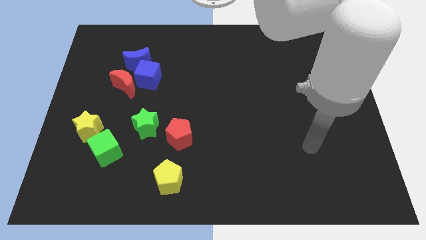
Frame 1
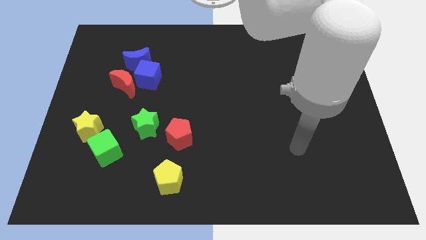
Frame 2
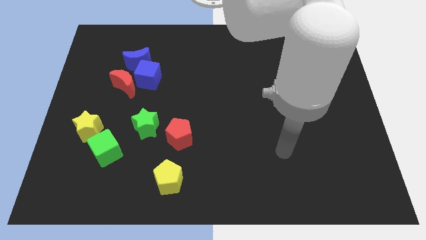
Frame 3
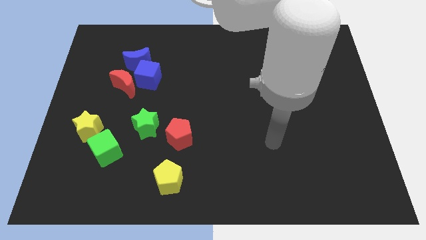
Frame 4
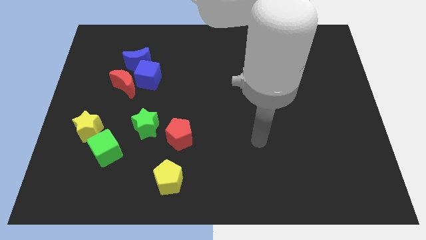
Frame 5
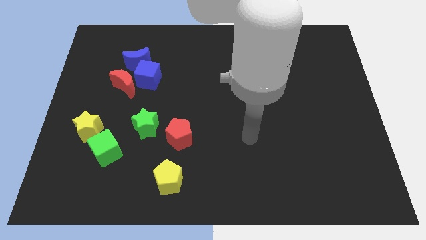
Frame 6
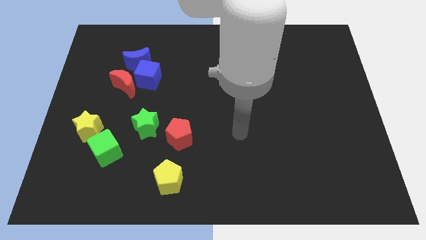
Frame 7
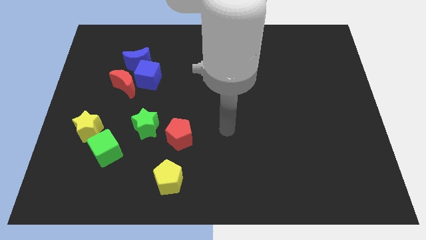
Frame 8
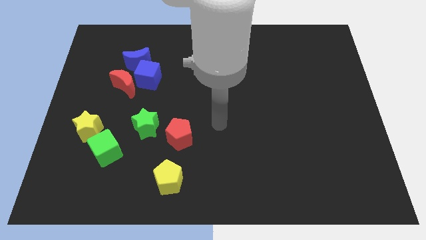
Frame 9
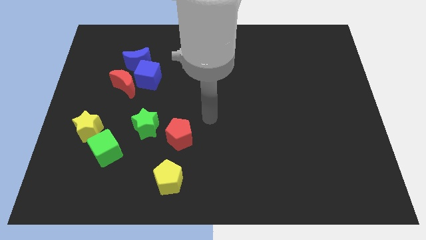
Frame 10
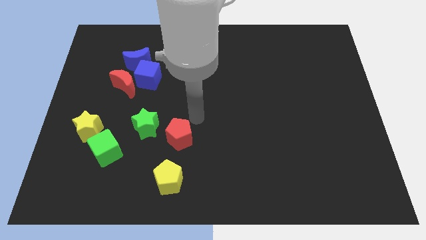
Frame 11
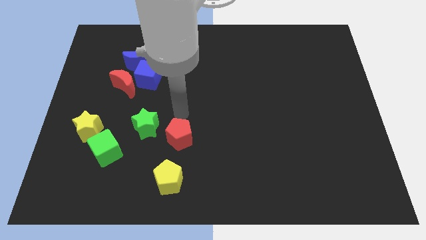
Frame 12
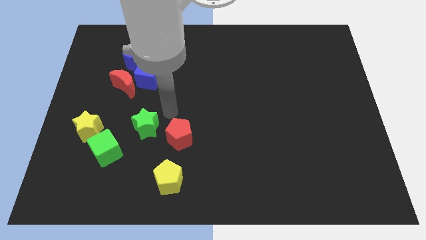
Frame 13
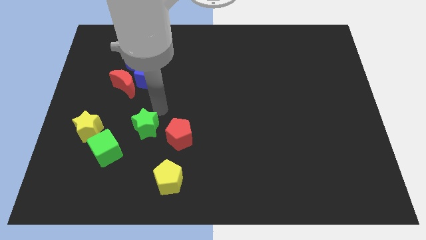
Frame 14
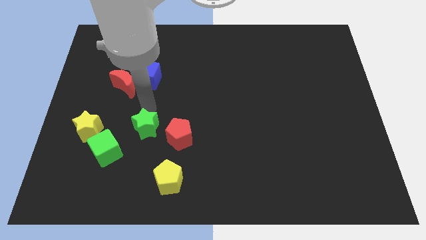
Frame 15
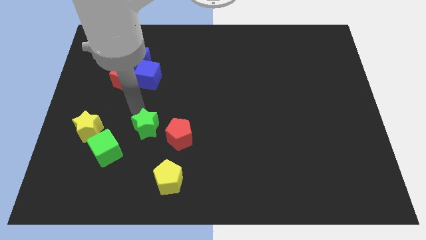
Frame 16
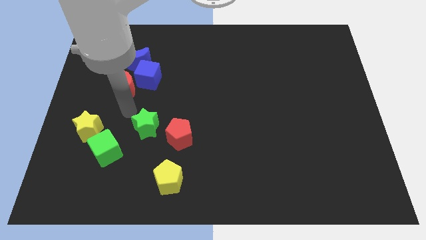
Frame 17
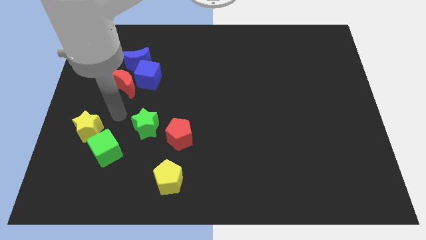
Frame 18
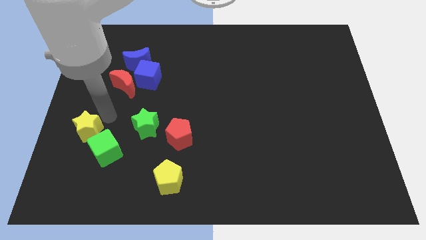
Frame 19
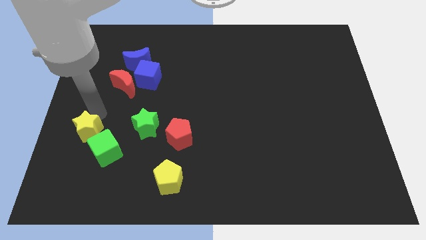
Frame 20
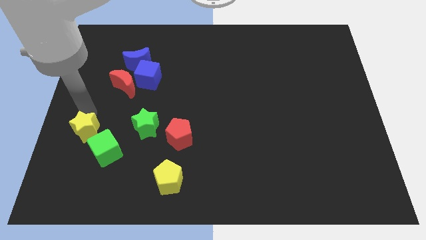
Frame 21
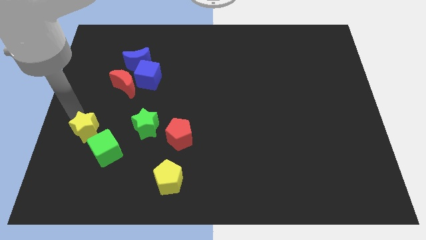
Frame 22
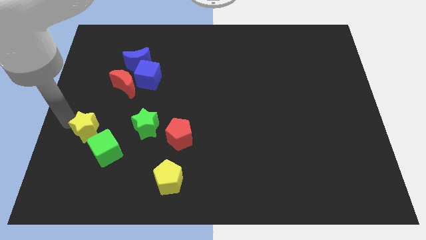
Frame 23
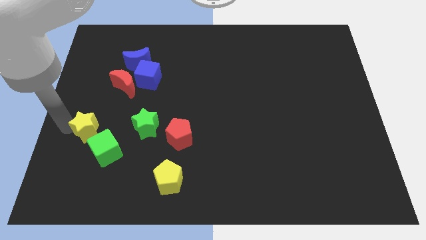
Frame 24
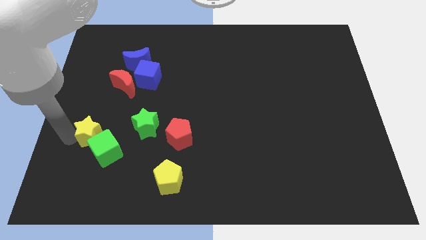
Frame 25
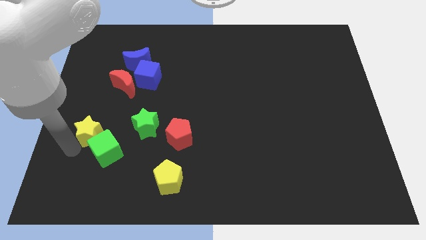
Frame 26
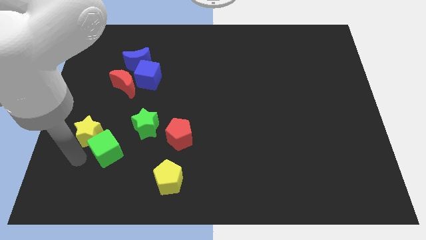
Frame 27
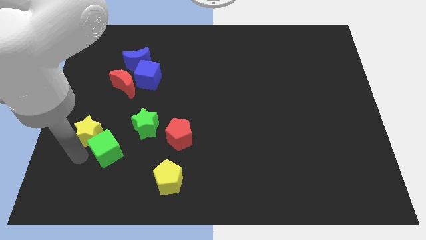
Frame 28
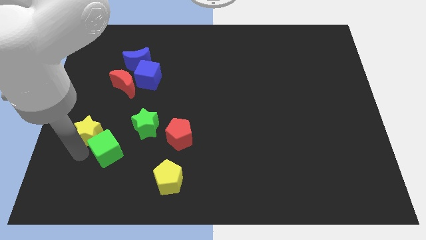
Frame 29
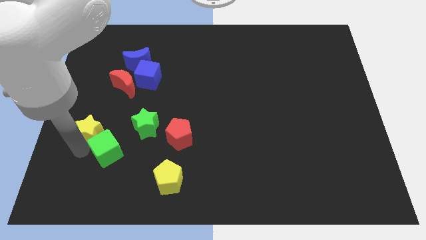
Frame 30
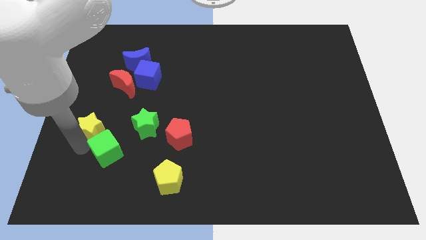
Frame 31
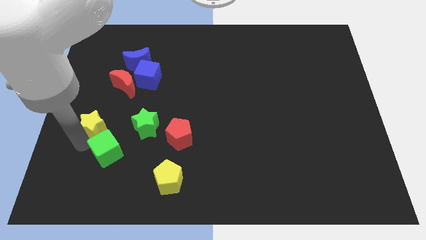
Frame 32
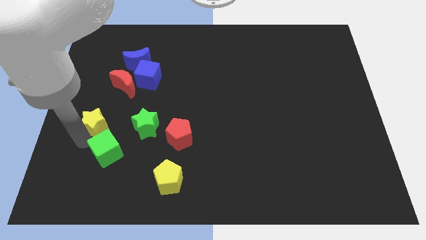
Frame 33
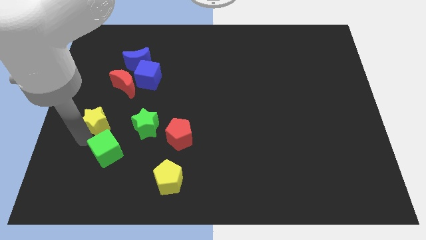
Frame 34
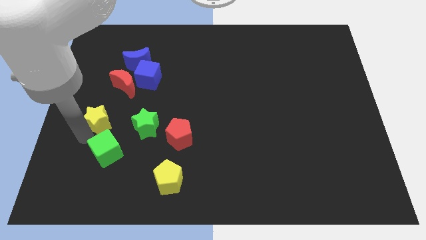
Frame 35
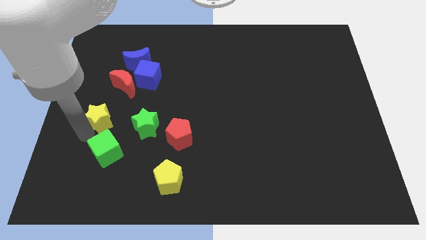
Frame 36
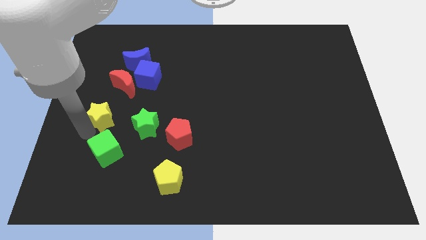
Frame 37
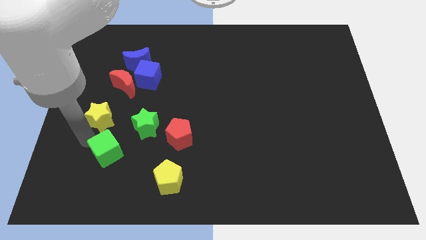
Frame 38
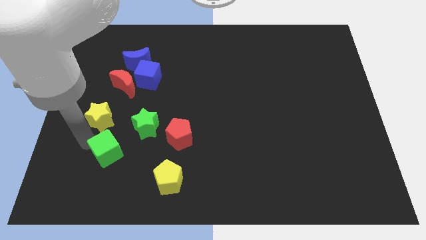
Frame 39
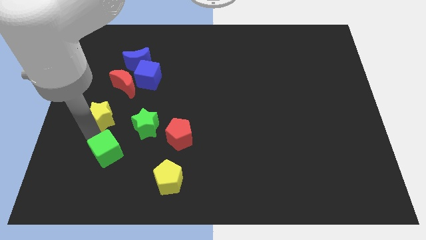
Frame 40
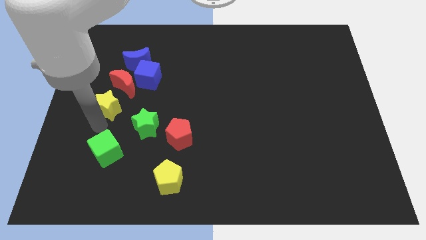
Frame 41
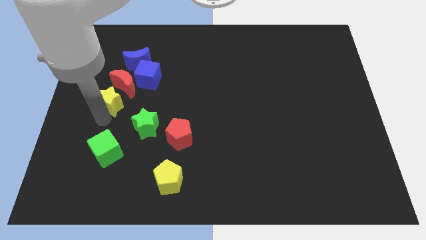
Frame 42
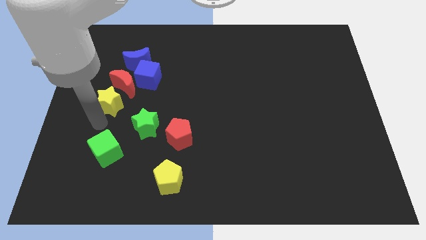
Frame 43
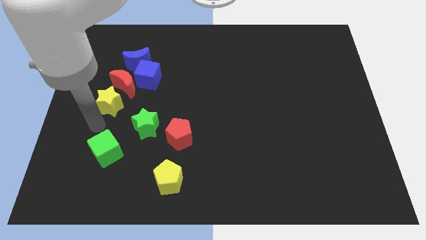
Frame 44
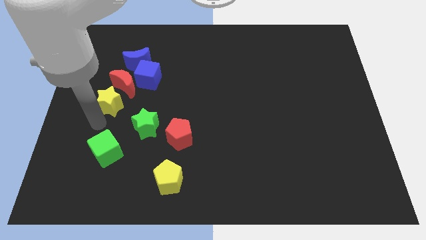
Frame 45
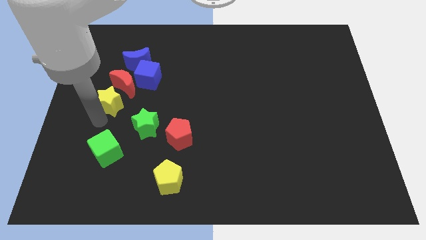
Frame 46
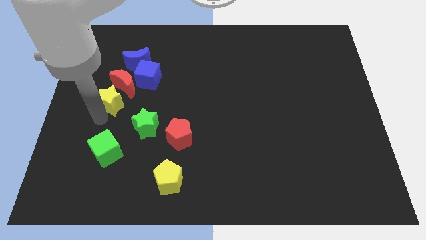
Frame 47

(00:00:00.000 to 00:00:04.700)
slide the yellow star towards the red moon
